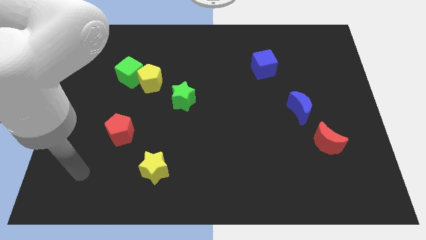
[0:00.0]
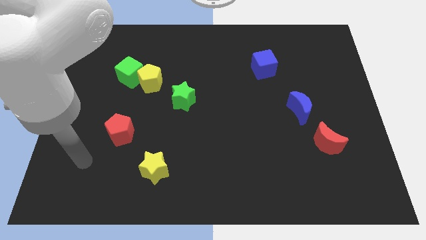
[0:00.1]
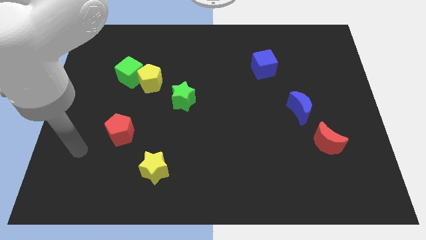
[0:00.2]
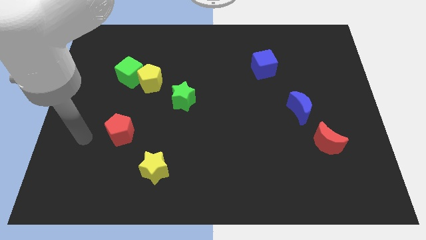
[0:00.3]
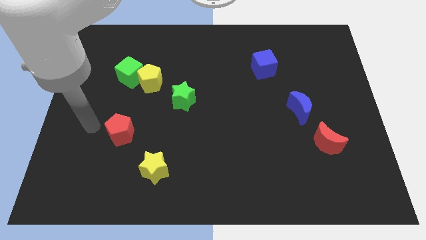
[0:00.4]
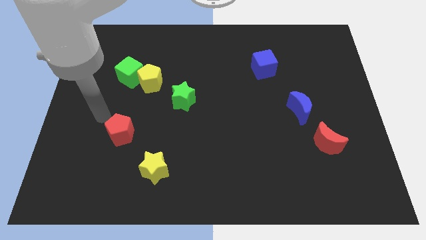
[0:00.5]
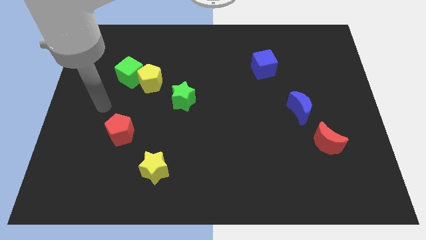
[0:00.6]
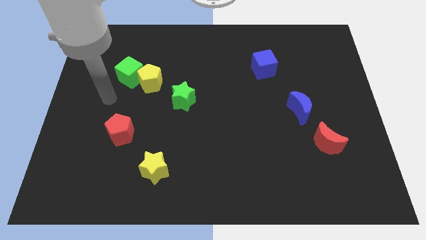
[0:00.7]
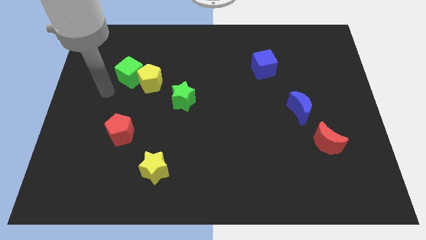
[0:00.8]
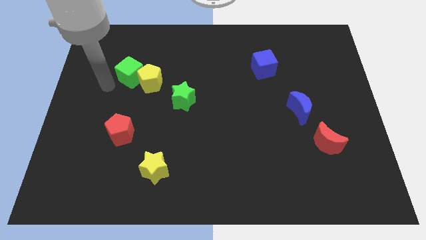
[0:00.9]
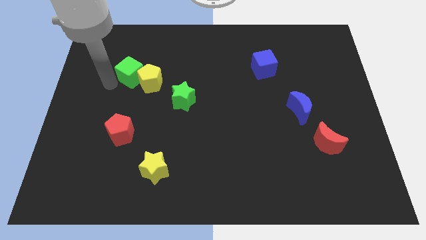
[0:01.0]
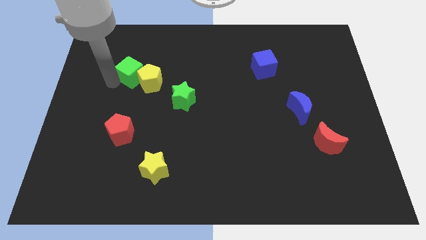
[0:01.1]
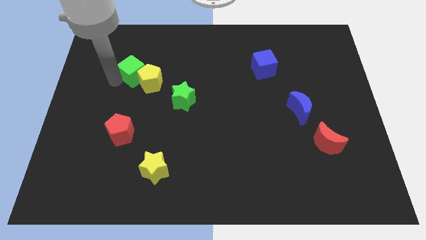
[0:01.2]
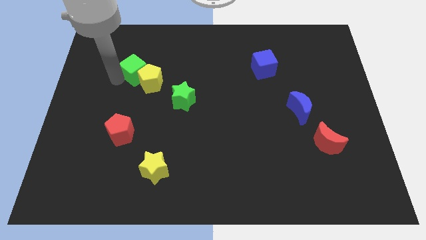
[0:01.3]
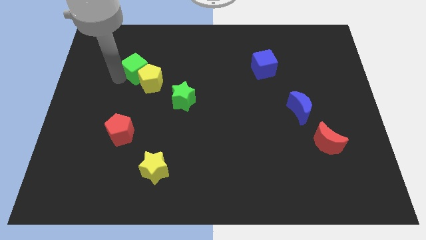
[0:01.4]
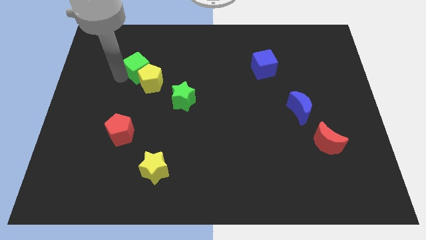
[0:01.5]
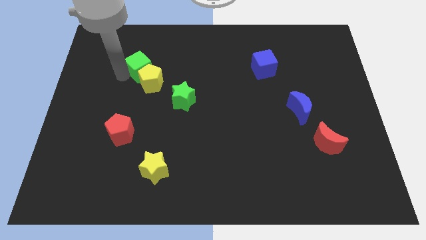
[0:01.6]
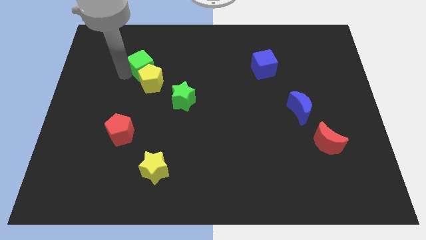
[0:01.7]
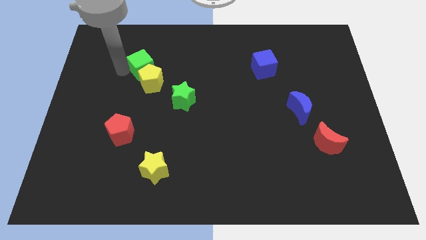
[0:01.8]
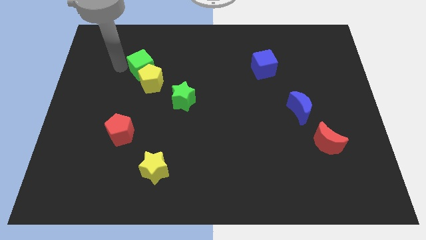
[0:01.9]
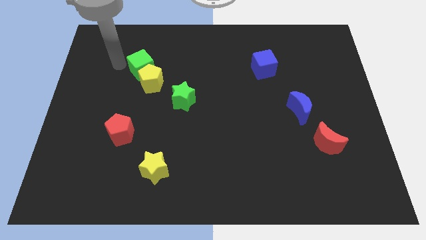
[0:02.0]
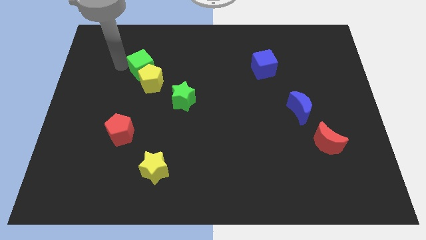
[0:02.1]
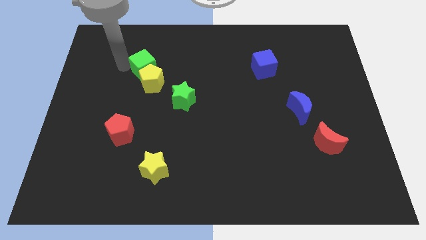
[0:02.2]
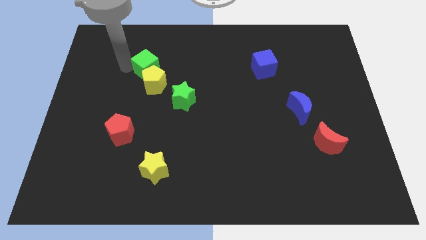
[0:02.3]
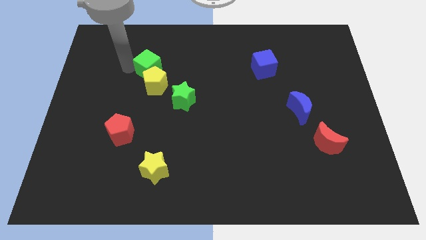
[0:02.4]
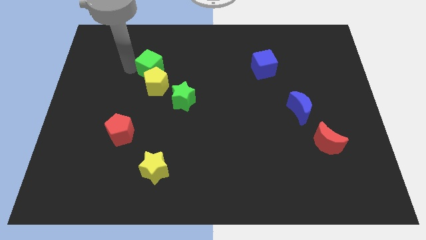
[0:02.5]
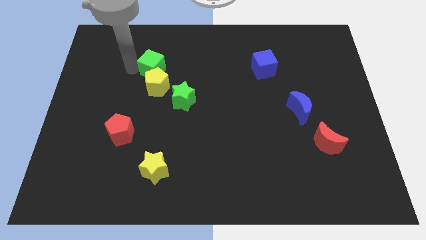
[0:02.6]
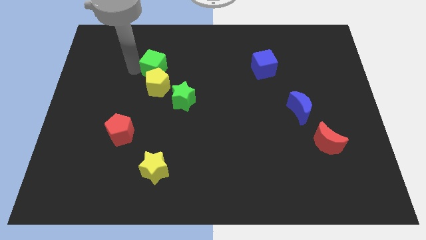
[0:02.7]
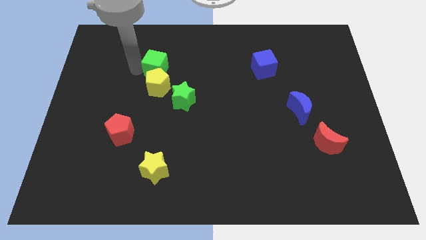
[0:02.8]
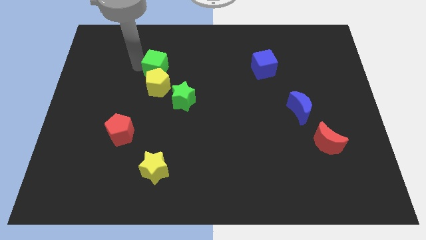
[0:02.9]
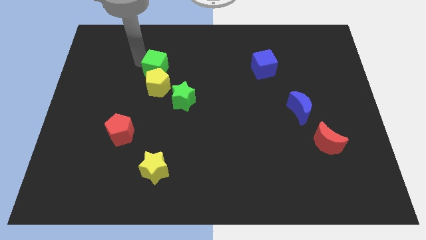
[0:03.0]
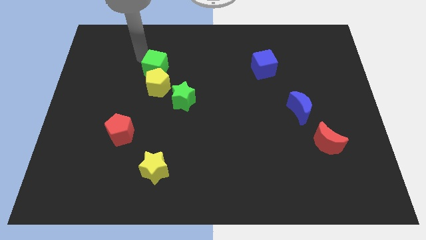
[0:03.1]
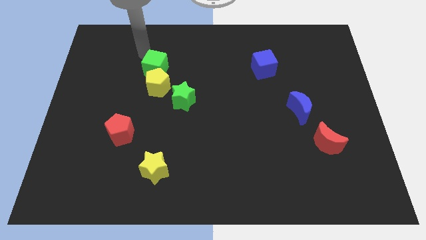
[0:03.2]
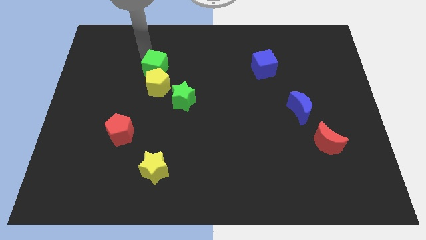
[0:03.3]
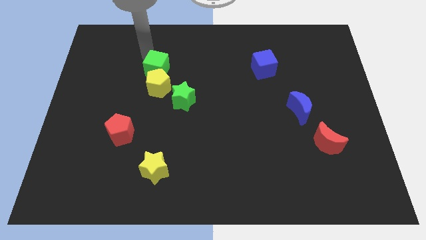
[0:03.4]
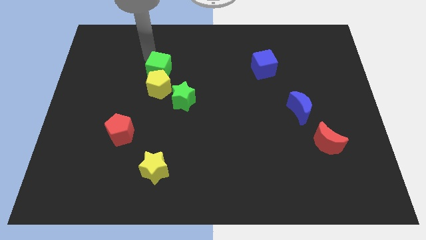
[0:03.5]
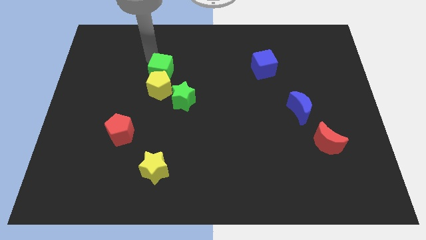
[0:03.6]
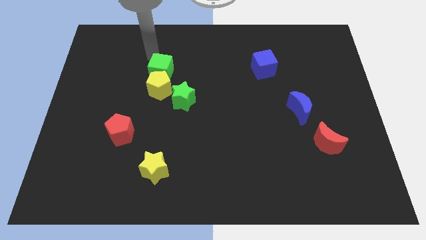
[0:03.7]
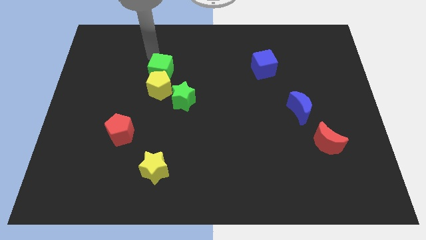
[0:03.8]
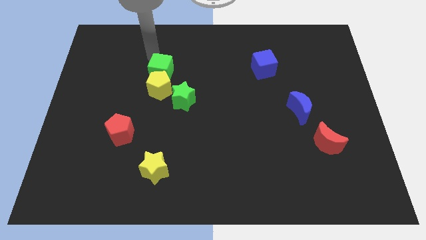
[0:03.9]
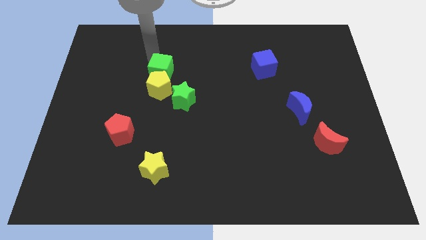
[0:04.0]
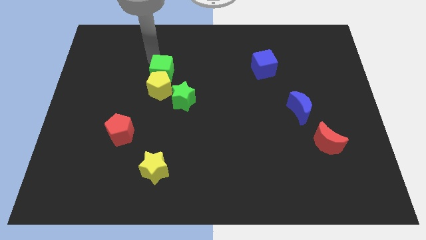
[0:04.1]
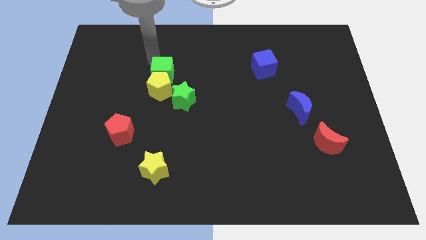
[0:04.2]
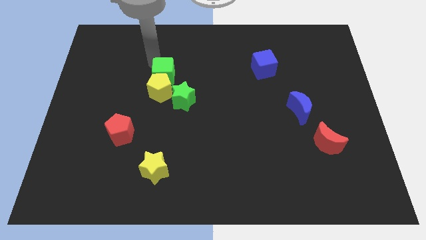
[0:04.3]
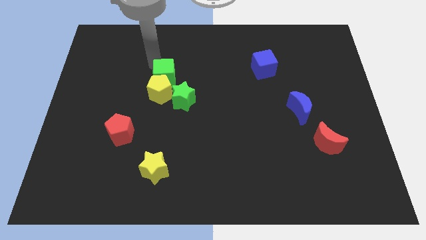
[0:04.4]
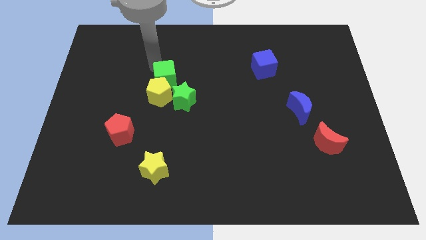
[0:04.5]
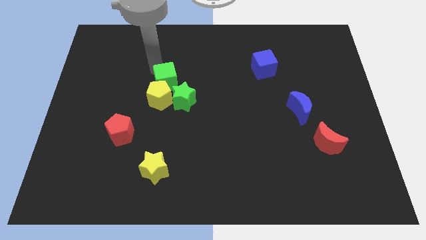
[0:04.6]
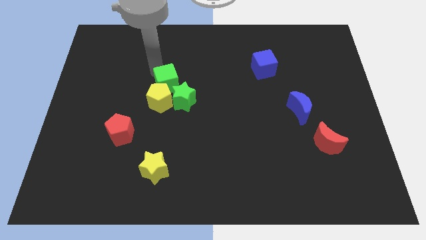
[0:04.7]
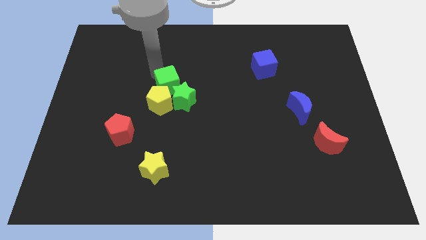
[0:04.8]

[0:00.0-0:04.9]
put the green cube towards the green star

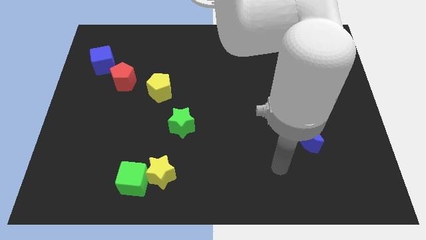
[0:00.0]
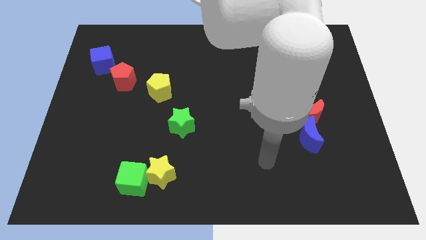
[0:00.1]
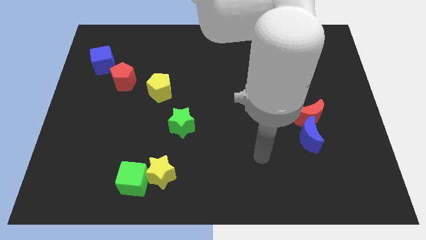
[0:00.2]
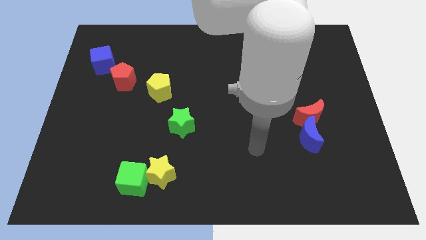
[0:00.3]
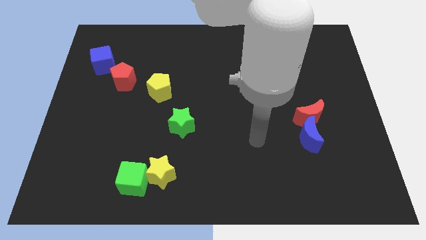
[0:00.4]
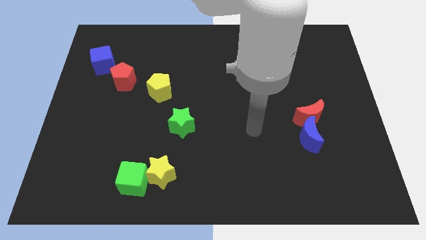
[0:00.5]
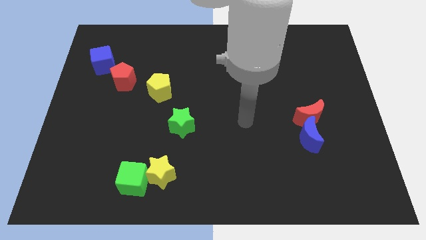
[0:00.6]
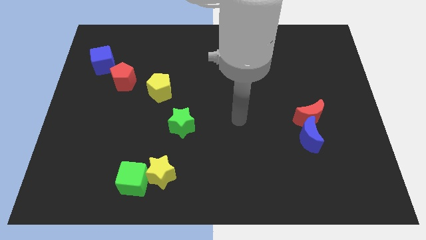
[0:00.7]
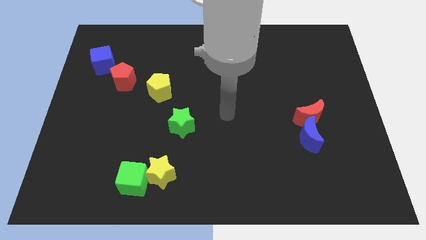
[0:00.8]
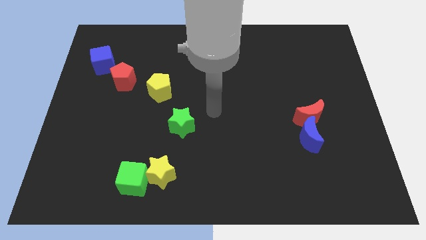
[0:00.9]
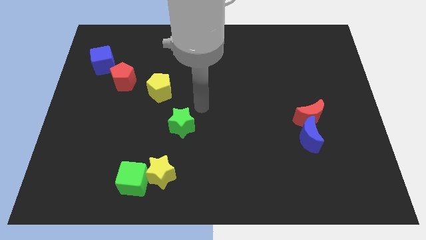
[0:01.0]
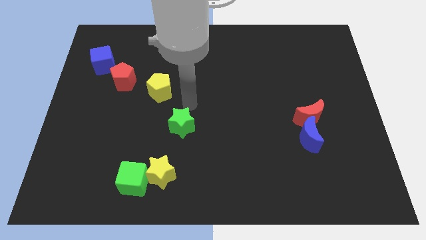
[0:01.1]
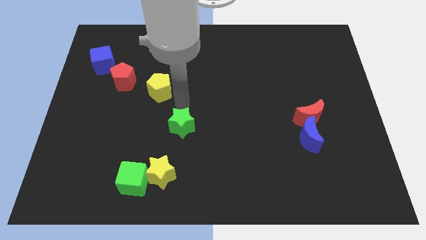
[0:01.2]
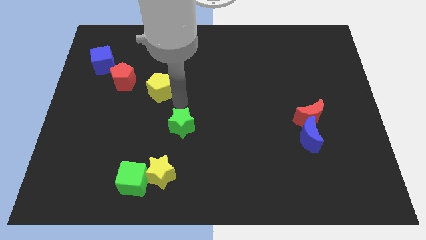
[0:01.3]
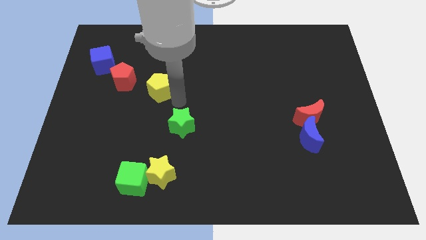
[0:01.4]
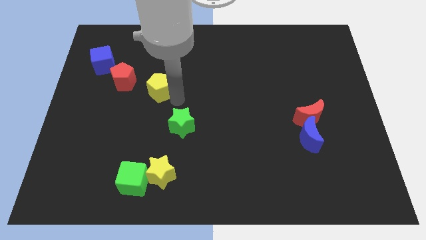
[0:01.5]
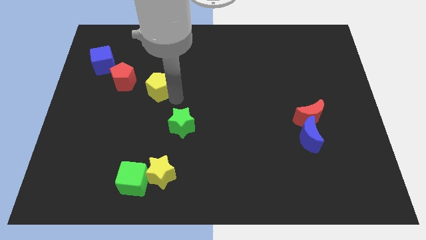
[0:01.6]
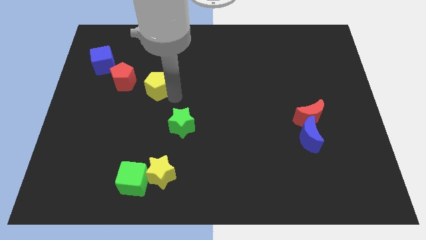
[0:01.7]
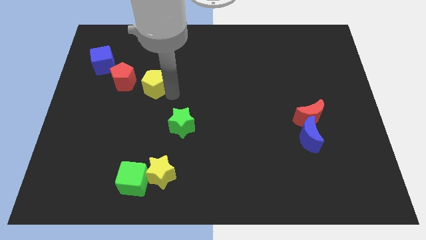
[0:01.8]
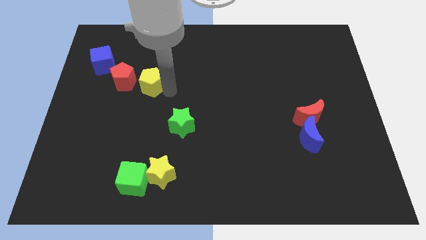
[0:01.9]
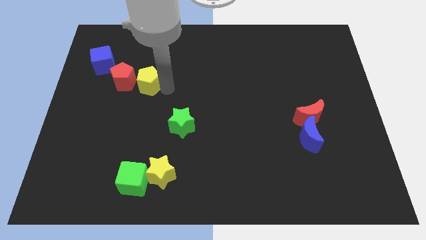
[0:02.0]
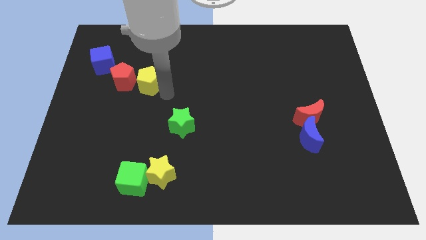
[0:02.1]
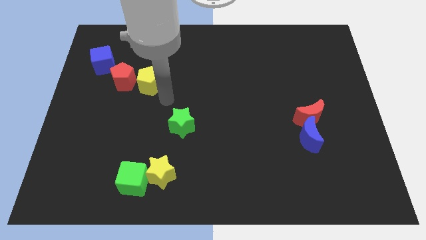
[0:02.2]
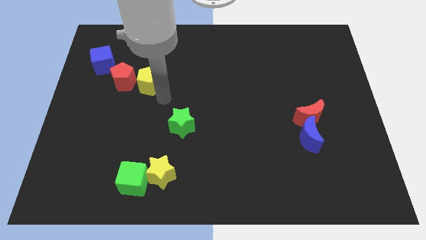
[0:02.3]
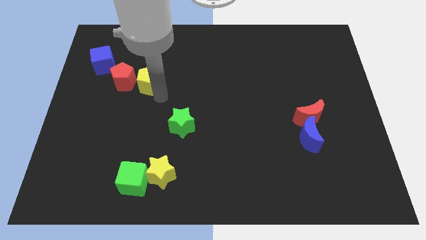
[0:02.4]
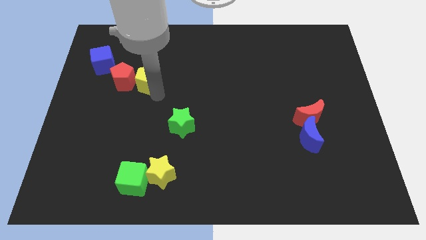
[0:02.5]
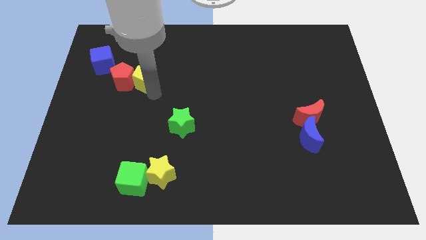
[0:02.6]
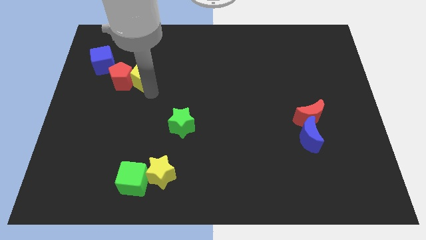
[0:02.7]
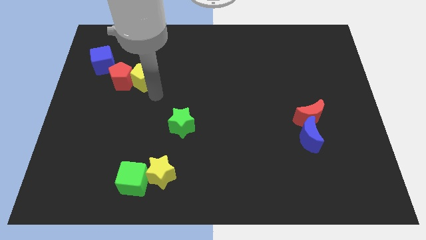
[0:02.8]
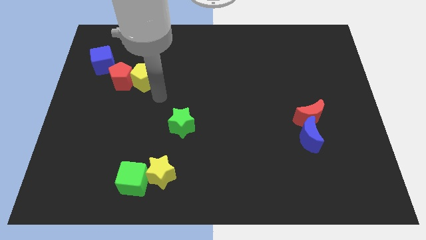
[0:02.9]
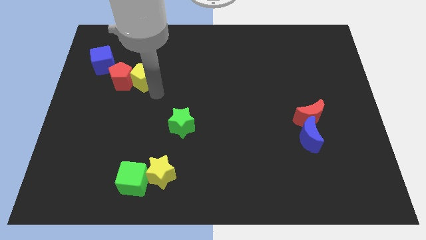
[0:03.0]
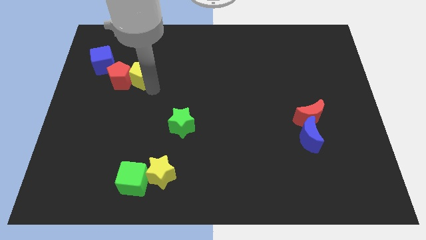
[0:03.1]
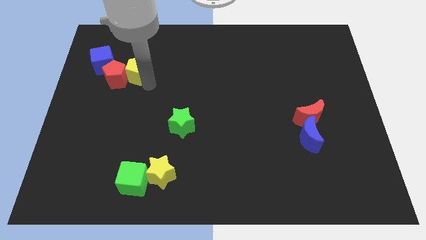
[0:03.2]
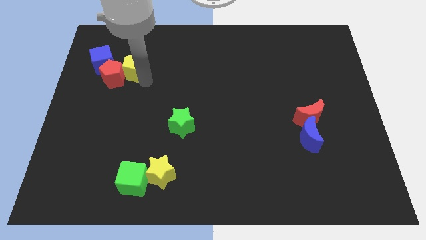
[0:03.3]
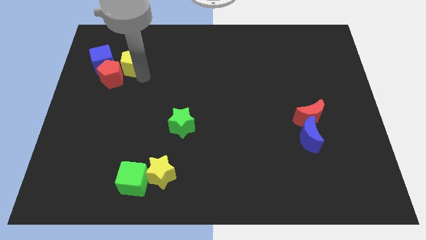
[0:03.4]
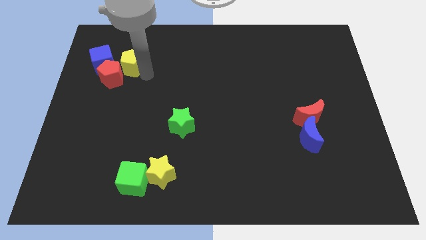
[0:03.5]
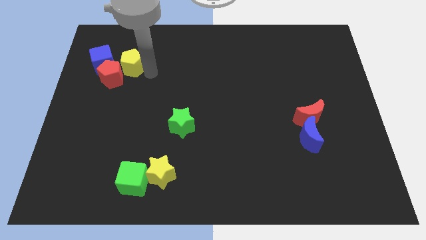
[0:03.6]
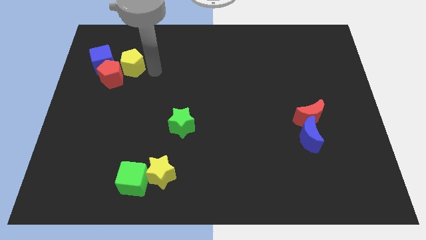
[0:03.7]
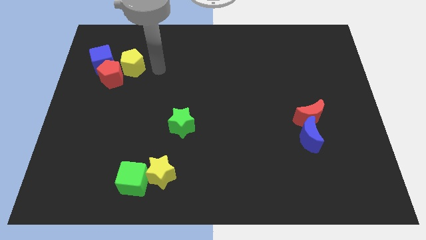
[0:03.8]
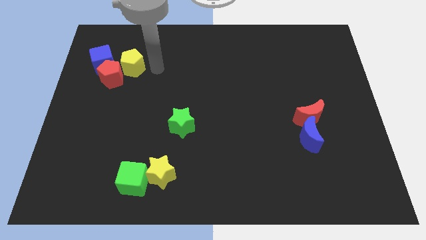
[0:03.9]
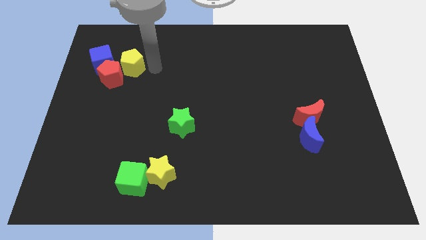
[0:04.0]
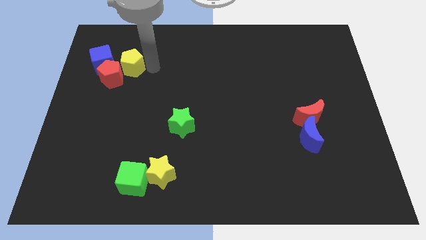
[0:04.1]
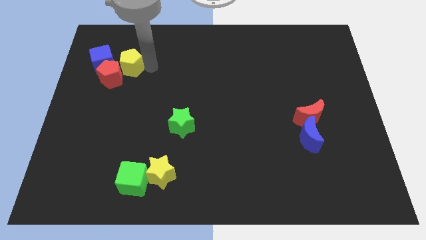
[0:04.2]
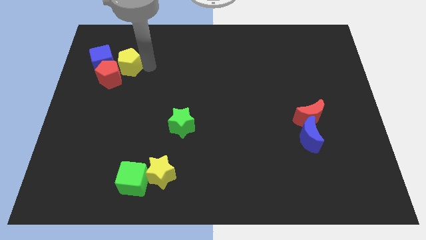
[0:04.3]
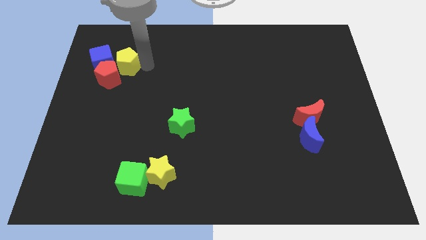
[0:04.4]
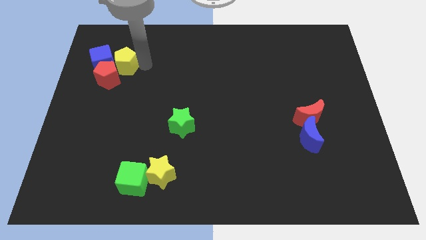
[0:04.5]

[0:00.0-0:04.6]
move the yellow pentagon next to the blue cube
